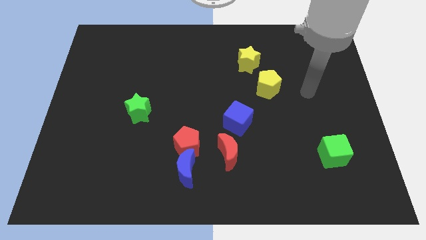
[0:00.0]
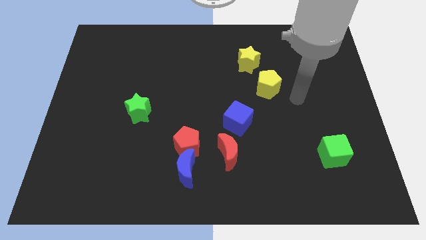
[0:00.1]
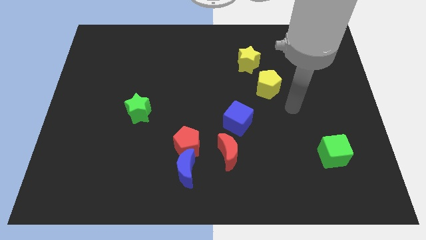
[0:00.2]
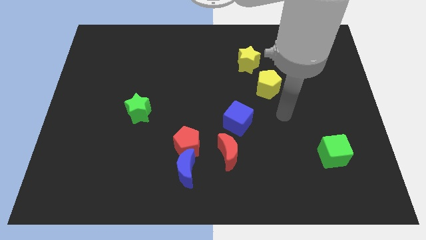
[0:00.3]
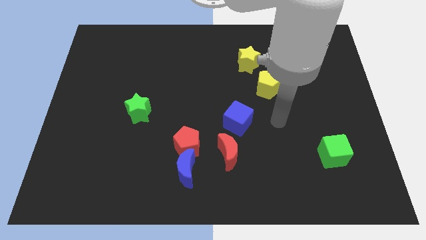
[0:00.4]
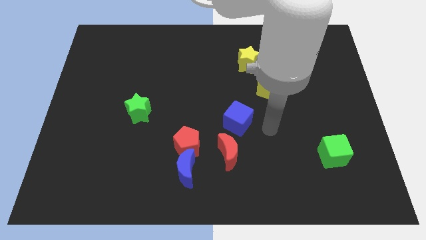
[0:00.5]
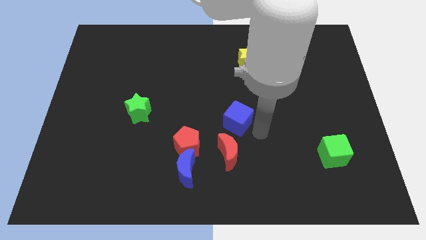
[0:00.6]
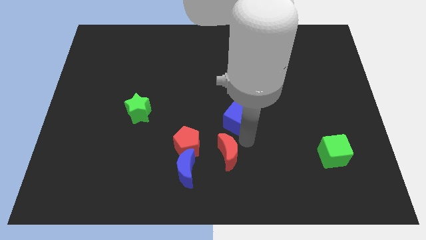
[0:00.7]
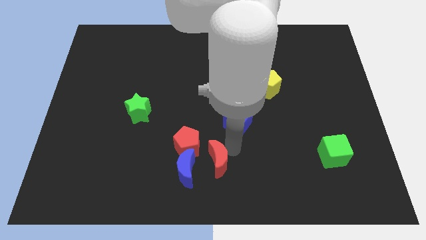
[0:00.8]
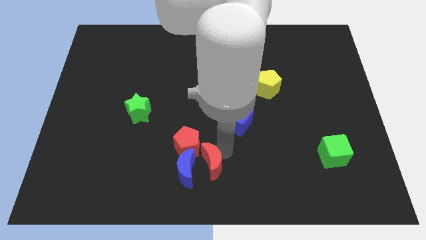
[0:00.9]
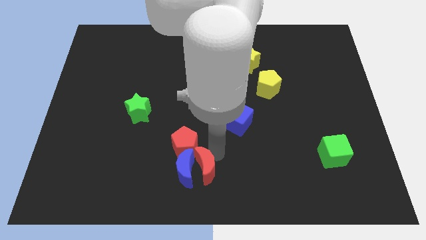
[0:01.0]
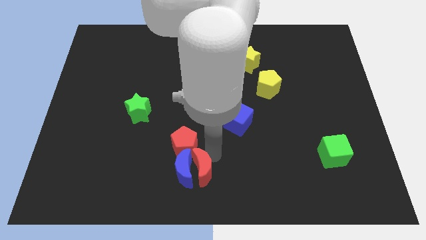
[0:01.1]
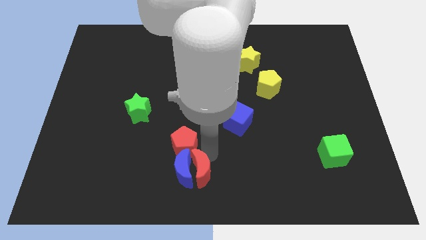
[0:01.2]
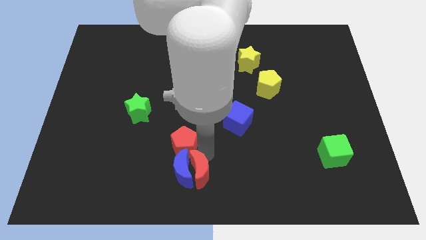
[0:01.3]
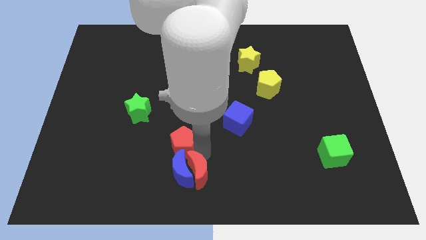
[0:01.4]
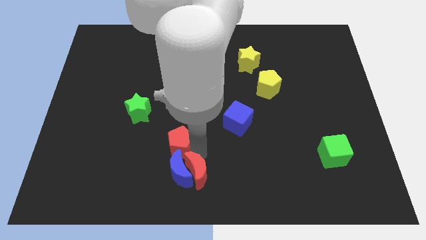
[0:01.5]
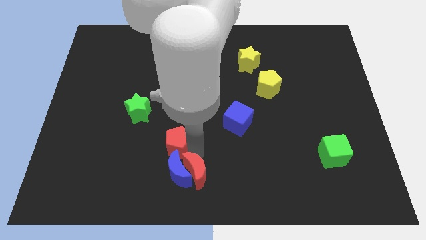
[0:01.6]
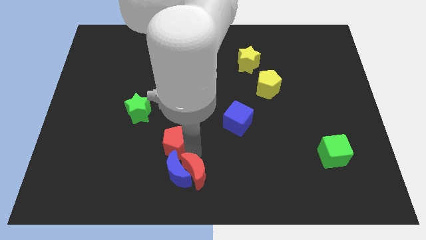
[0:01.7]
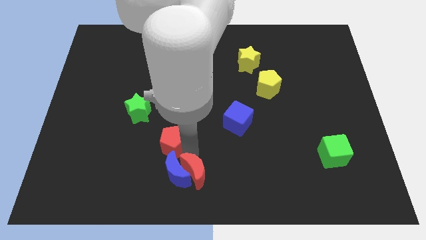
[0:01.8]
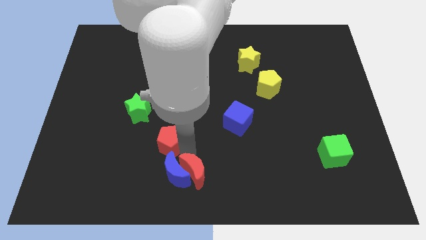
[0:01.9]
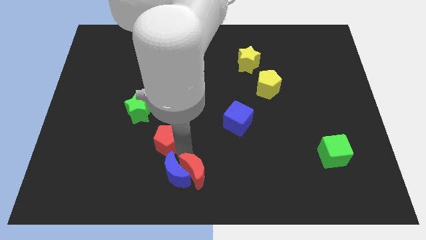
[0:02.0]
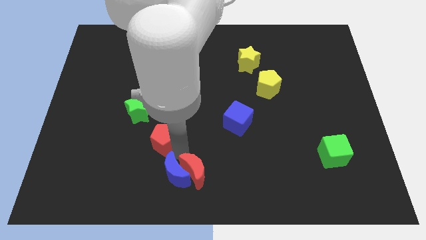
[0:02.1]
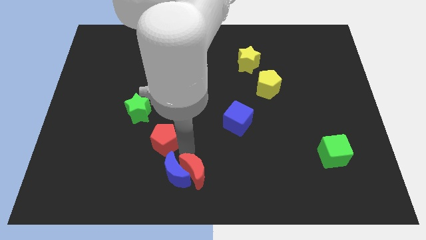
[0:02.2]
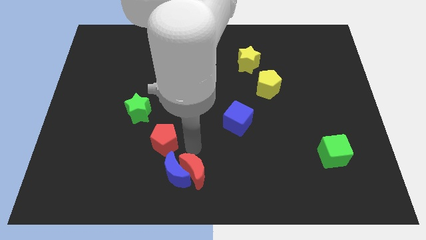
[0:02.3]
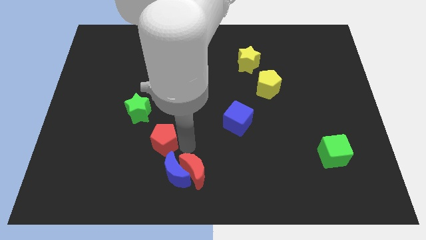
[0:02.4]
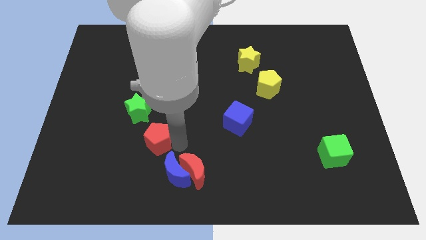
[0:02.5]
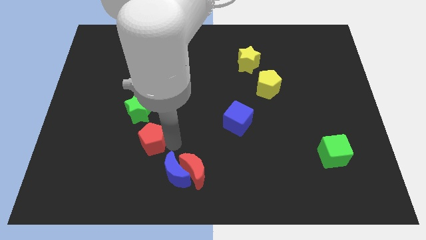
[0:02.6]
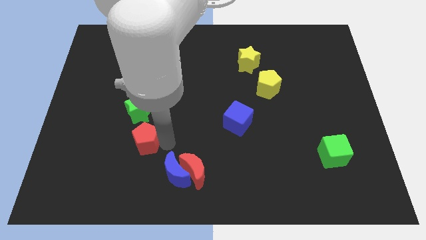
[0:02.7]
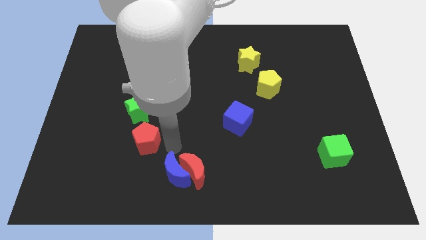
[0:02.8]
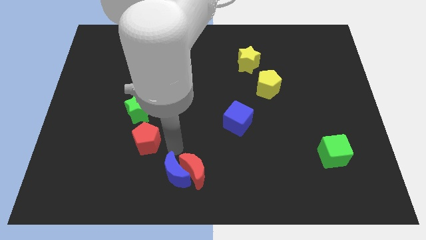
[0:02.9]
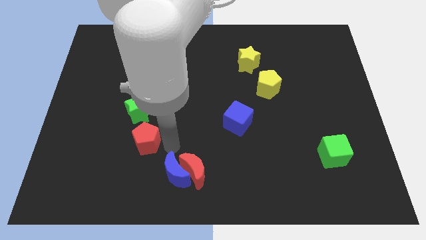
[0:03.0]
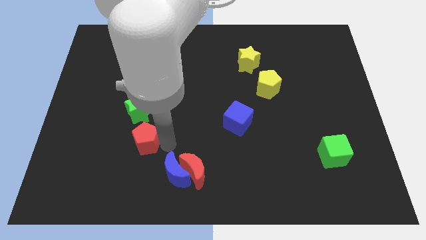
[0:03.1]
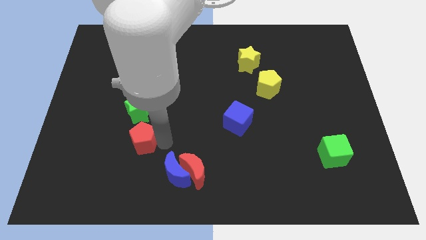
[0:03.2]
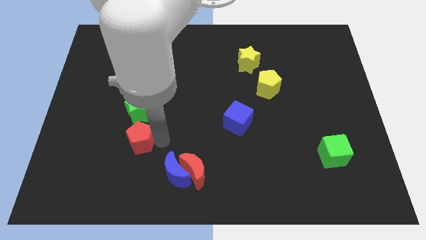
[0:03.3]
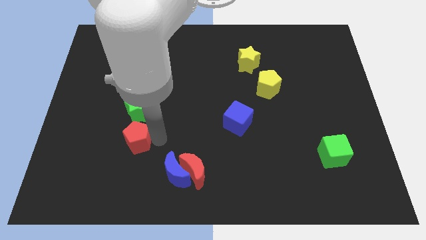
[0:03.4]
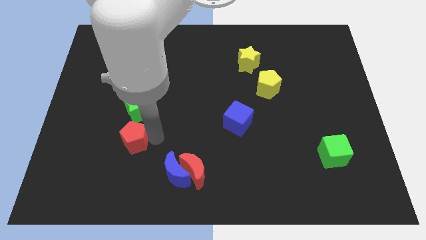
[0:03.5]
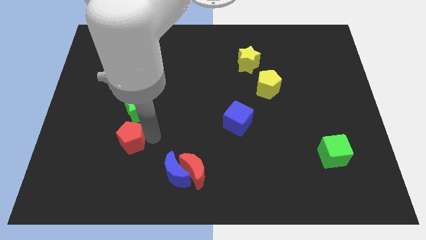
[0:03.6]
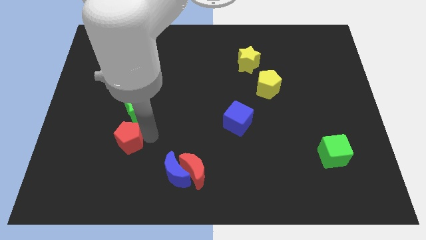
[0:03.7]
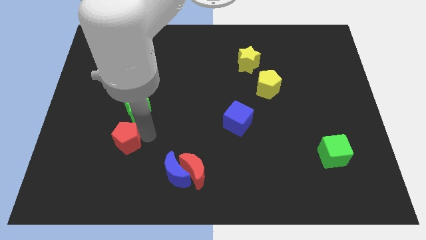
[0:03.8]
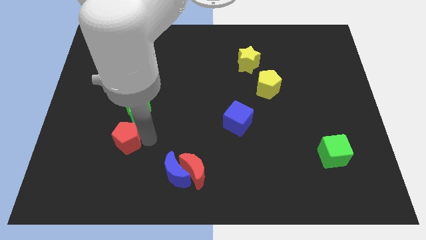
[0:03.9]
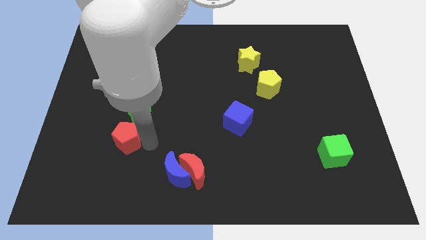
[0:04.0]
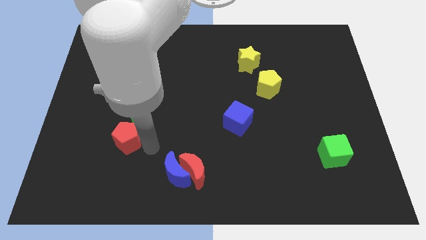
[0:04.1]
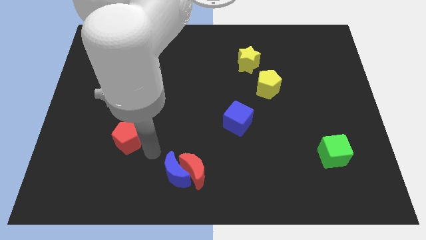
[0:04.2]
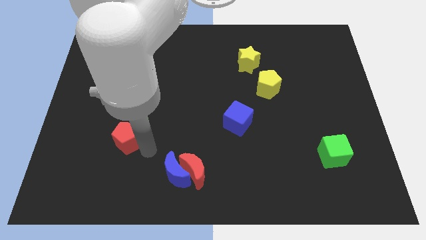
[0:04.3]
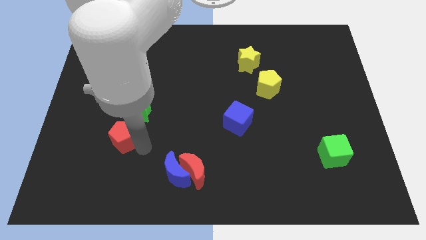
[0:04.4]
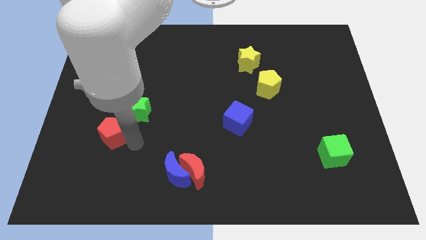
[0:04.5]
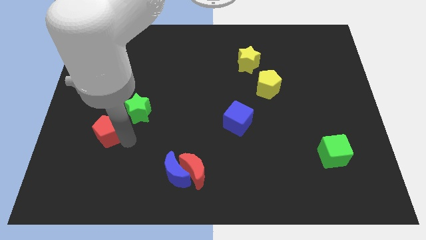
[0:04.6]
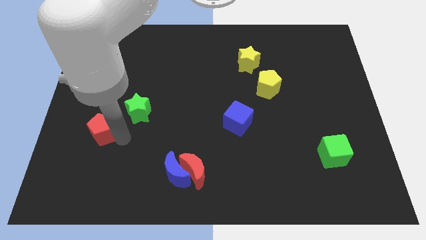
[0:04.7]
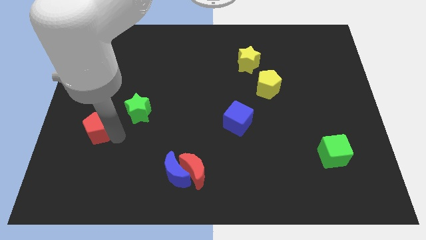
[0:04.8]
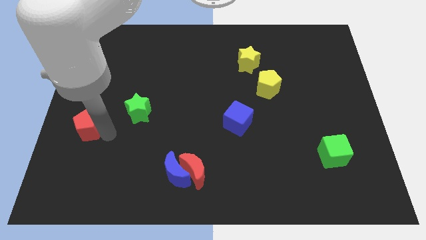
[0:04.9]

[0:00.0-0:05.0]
slide the red pentagon to the left side of the board

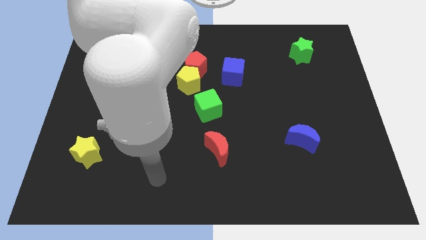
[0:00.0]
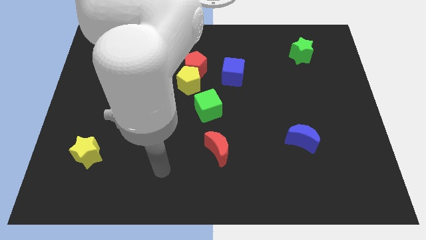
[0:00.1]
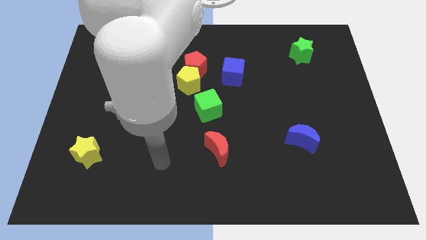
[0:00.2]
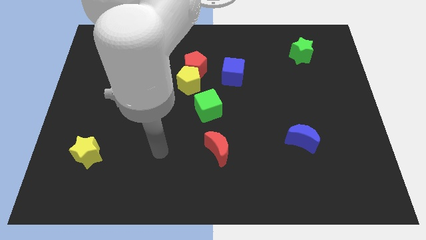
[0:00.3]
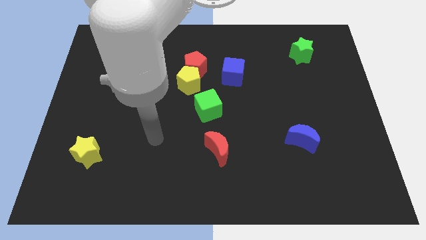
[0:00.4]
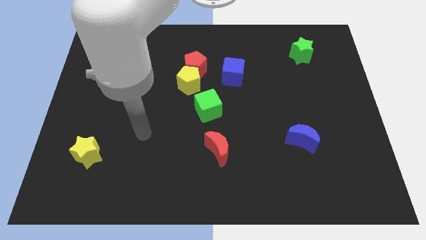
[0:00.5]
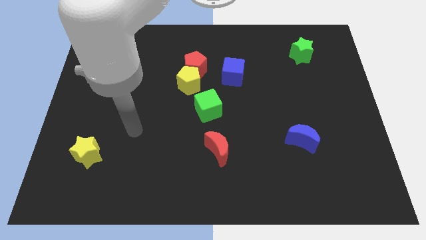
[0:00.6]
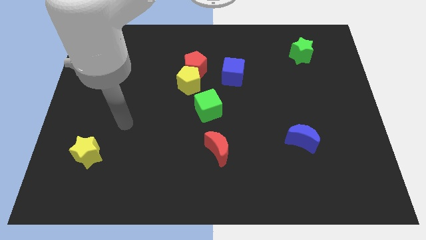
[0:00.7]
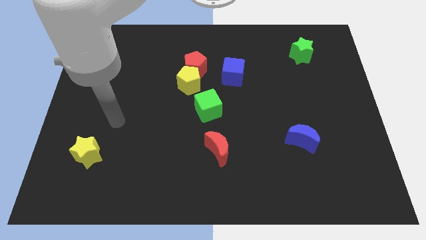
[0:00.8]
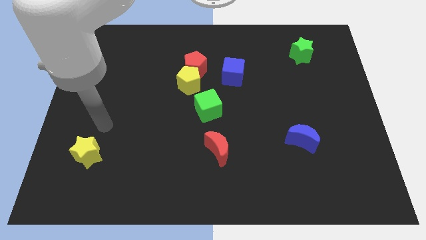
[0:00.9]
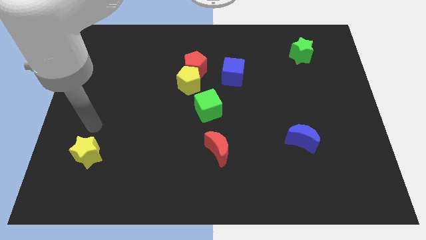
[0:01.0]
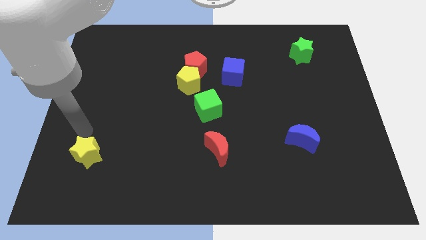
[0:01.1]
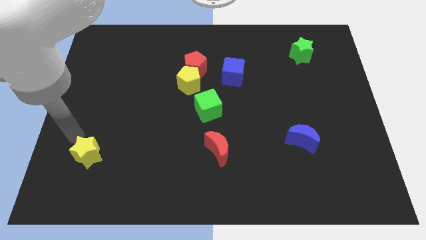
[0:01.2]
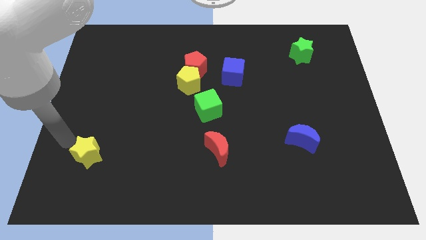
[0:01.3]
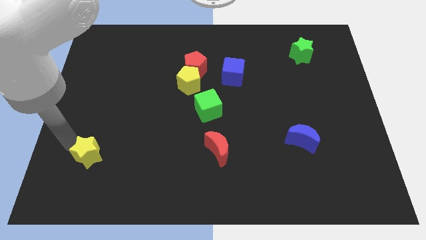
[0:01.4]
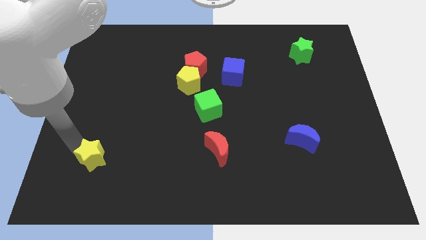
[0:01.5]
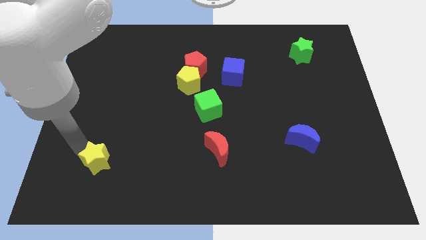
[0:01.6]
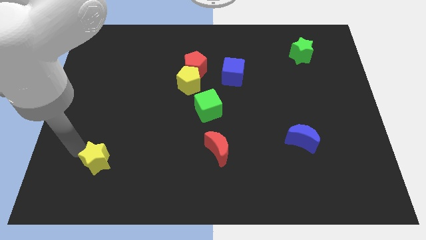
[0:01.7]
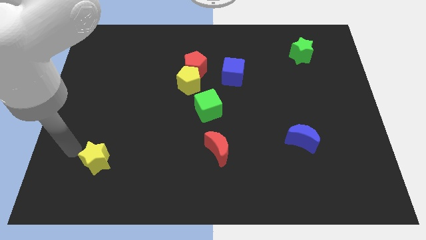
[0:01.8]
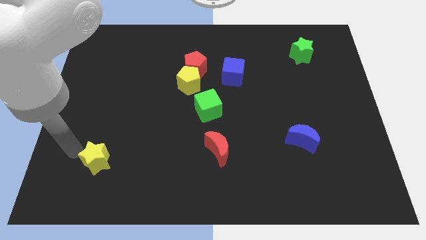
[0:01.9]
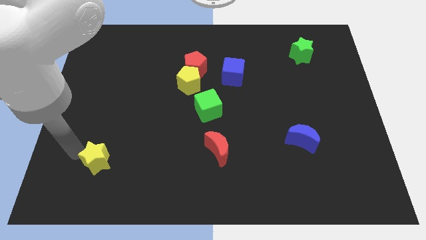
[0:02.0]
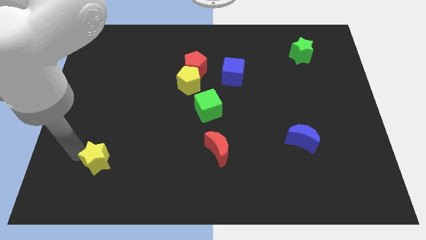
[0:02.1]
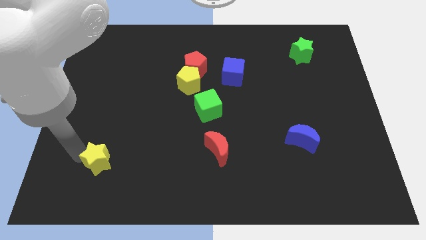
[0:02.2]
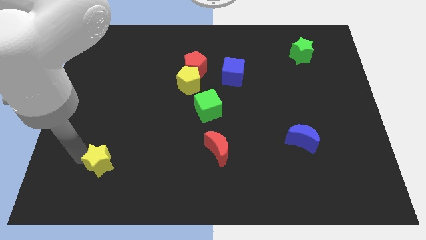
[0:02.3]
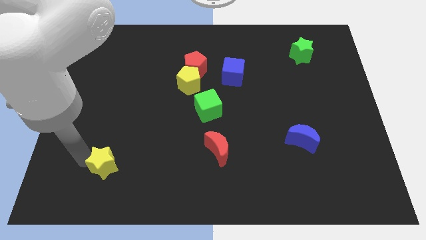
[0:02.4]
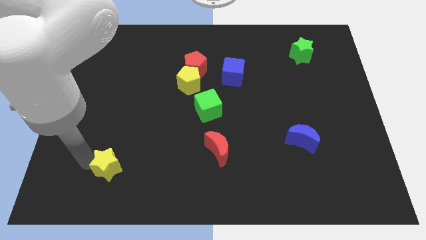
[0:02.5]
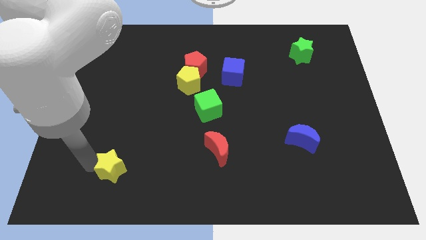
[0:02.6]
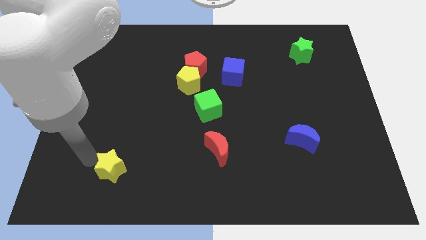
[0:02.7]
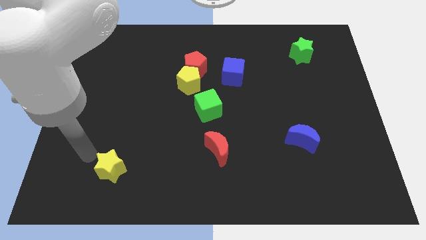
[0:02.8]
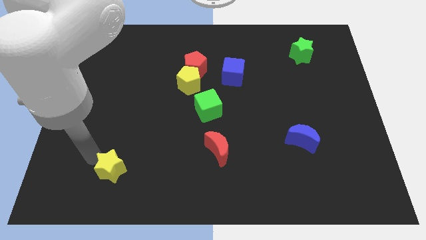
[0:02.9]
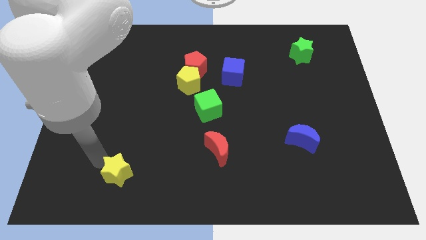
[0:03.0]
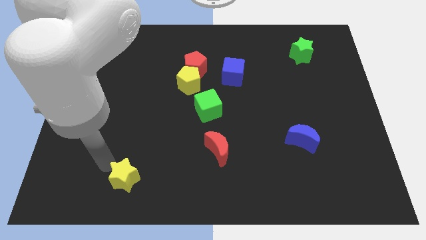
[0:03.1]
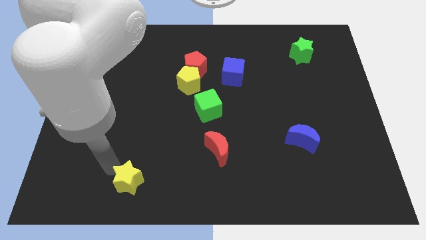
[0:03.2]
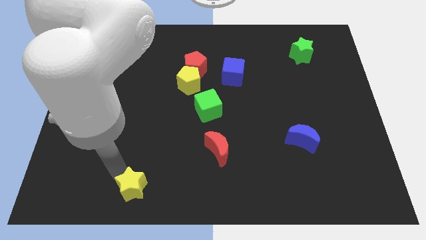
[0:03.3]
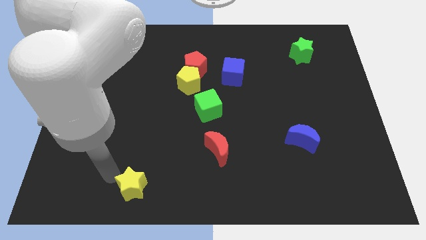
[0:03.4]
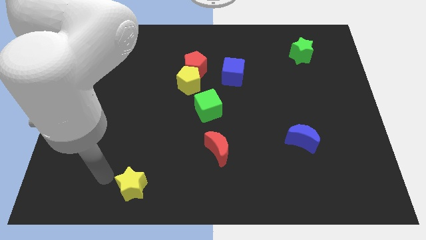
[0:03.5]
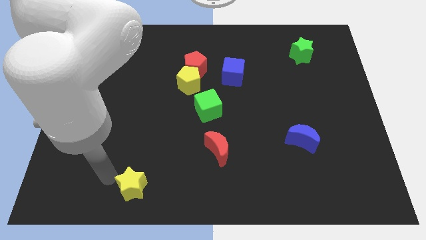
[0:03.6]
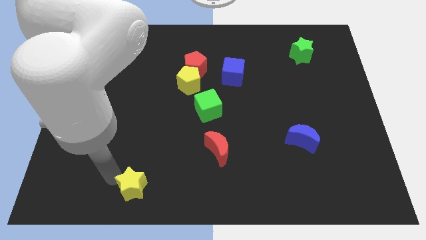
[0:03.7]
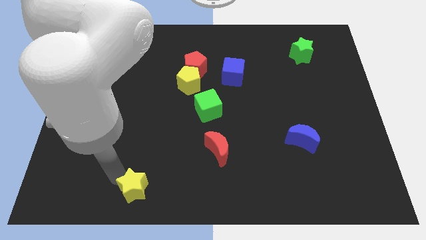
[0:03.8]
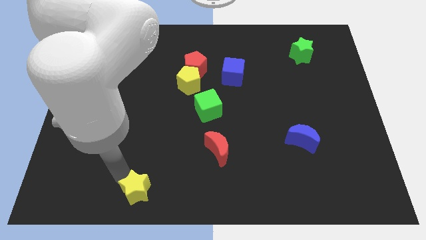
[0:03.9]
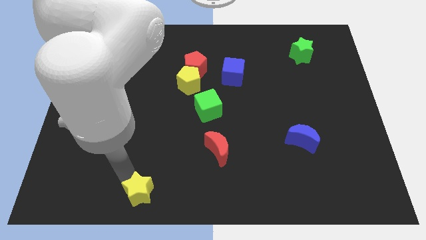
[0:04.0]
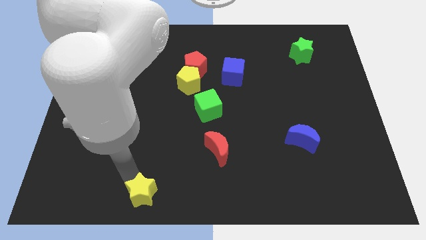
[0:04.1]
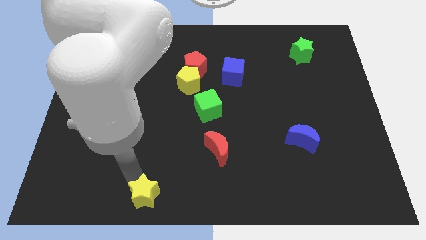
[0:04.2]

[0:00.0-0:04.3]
push the yellow star to the bottom
